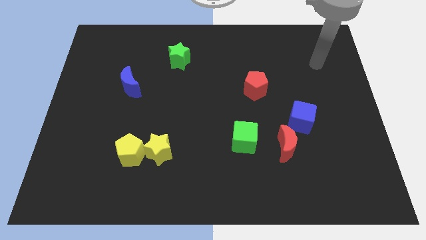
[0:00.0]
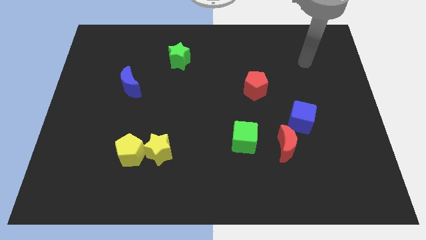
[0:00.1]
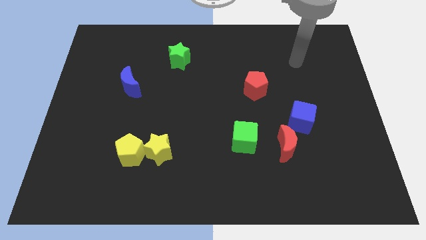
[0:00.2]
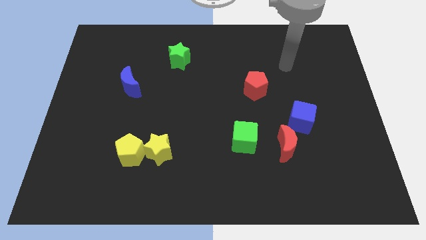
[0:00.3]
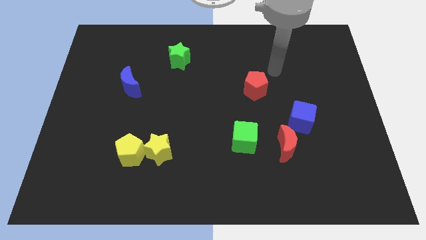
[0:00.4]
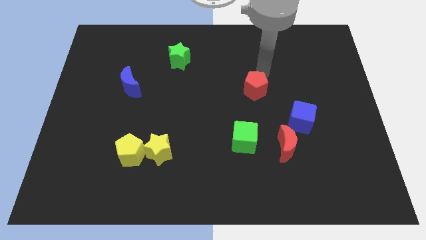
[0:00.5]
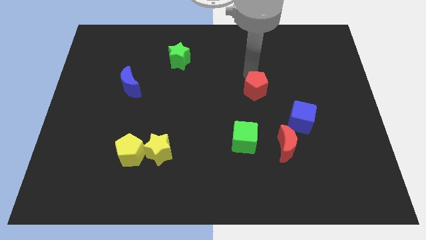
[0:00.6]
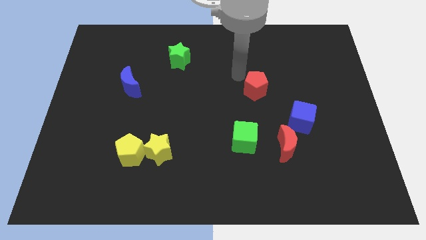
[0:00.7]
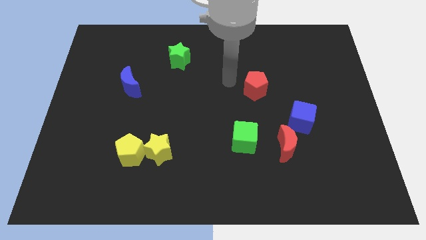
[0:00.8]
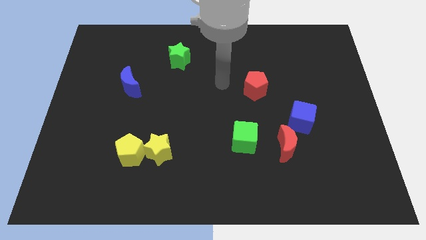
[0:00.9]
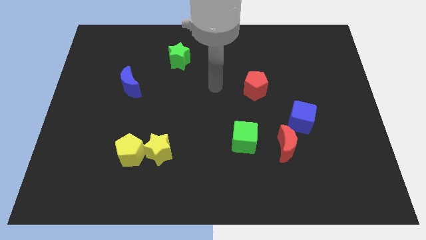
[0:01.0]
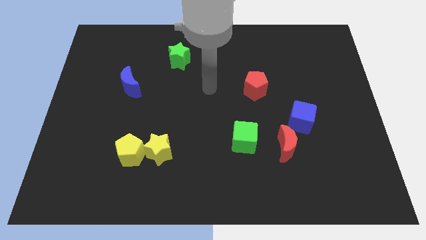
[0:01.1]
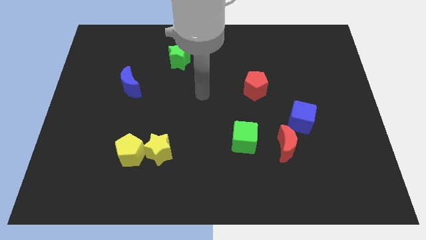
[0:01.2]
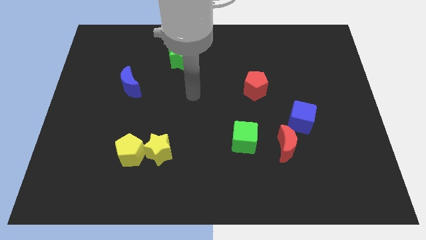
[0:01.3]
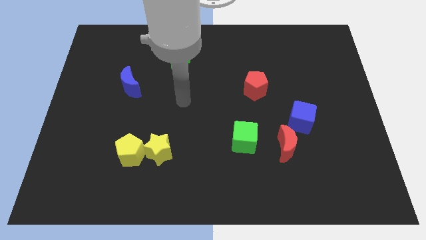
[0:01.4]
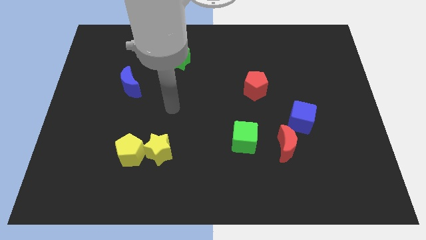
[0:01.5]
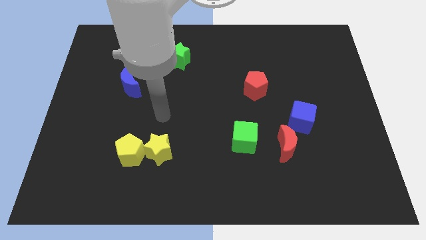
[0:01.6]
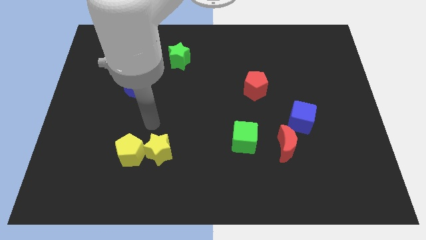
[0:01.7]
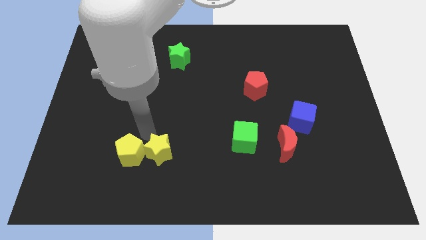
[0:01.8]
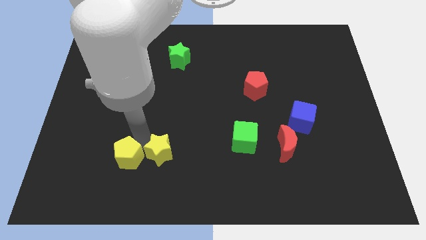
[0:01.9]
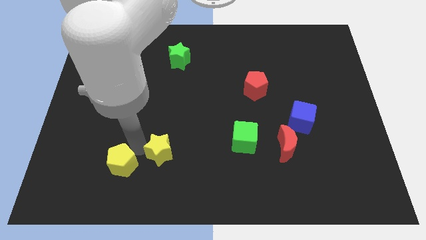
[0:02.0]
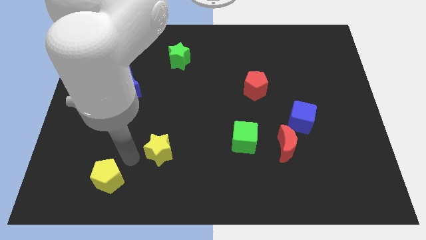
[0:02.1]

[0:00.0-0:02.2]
separate the yellow star from the yellow pentagon

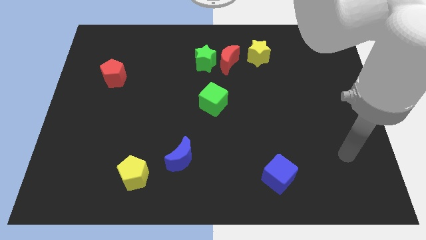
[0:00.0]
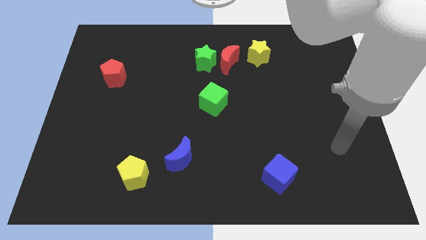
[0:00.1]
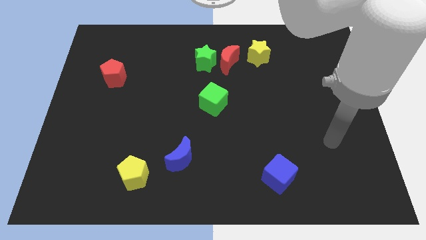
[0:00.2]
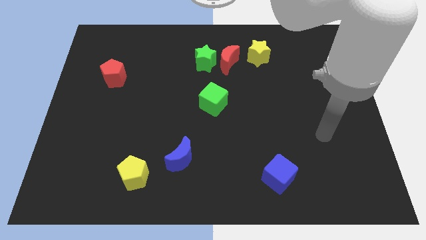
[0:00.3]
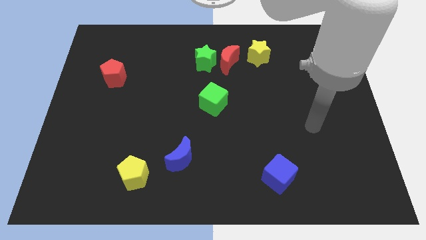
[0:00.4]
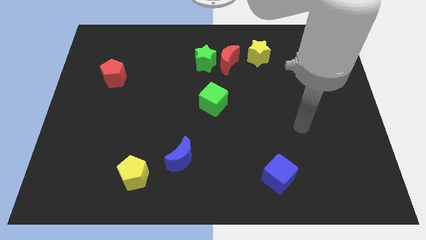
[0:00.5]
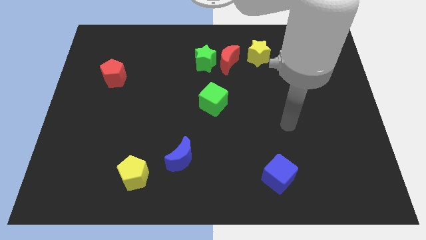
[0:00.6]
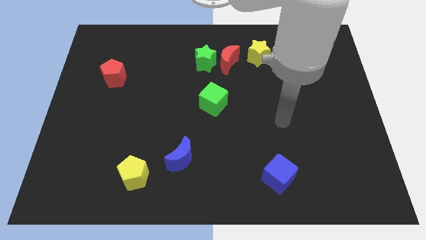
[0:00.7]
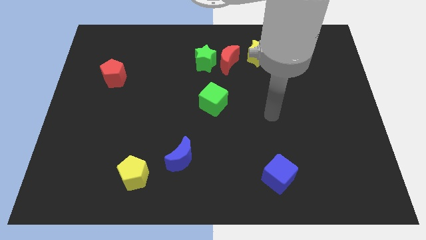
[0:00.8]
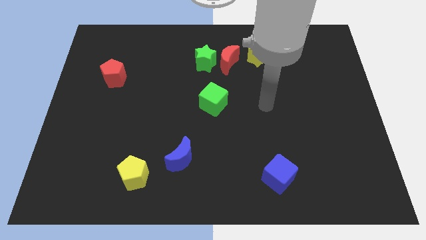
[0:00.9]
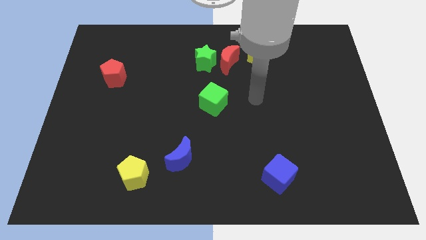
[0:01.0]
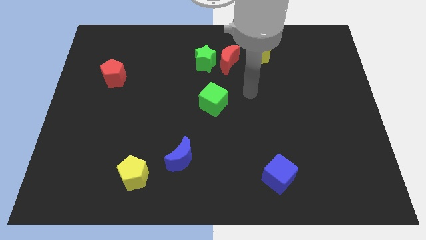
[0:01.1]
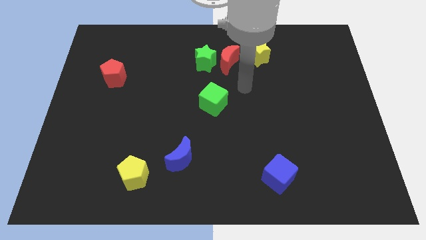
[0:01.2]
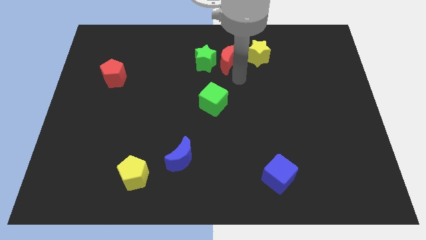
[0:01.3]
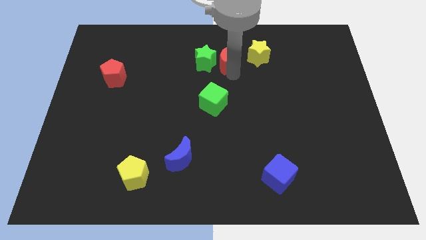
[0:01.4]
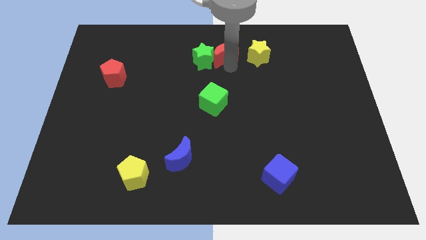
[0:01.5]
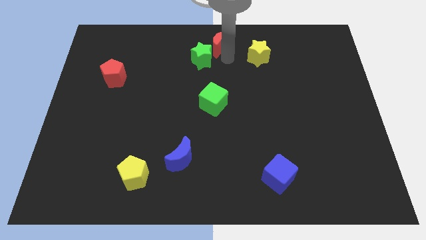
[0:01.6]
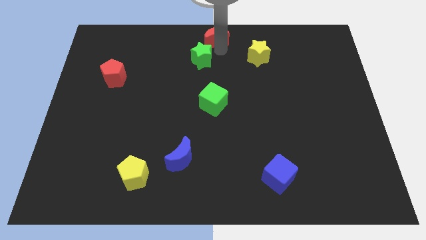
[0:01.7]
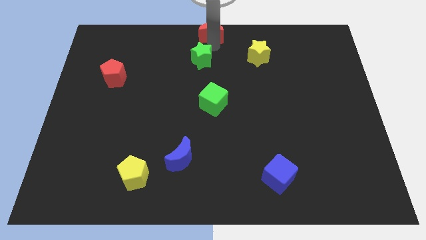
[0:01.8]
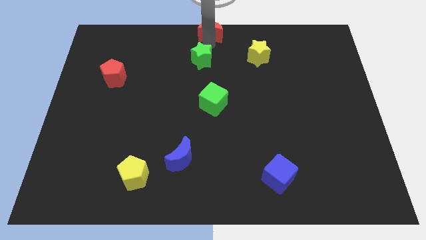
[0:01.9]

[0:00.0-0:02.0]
separate the green star from the red moon

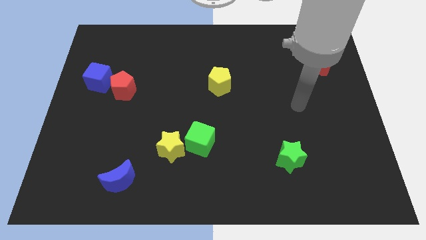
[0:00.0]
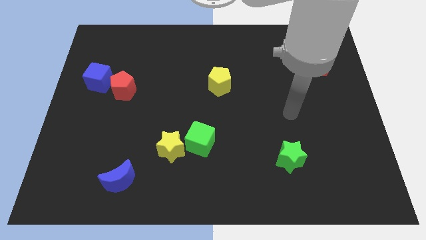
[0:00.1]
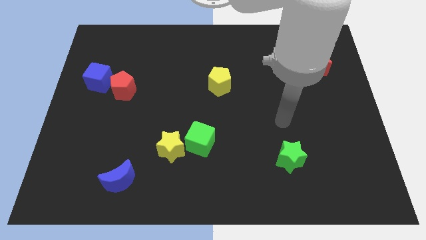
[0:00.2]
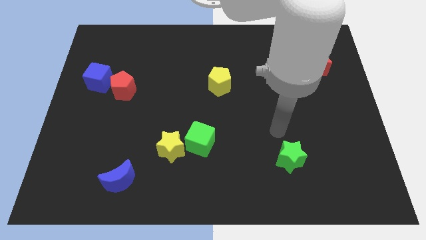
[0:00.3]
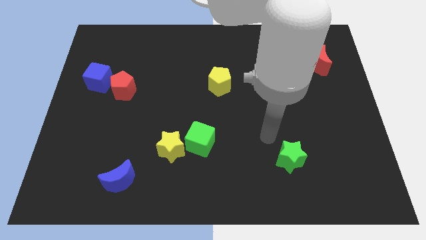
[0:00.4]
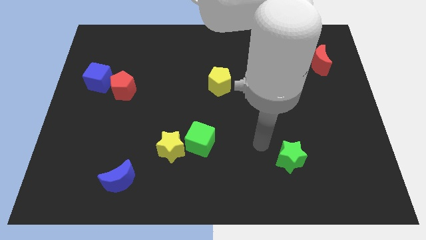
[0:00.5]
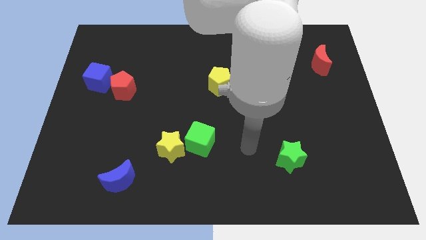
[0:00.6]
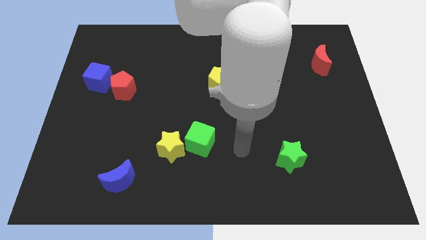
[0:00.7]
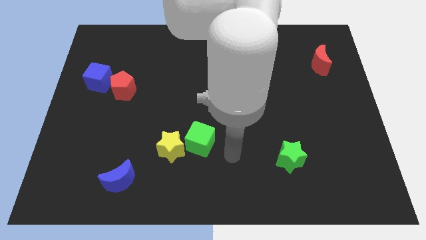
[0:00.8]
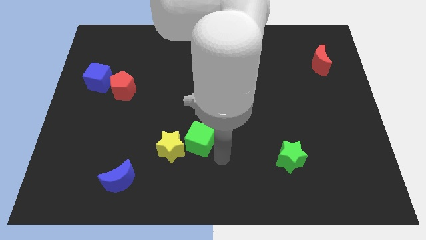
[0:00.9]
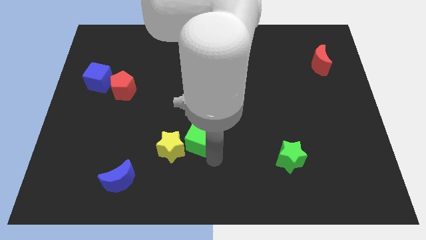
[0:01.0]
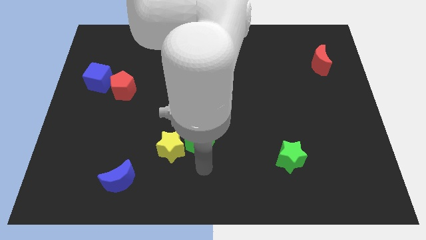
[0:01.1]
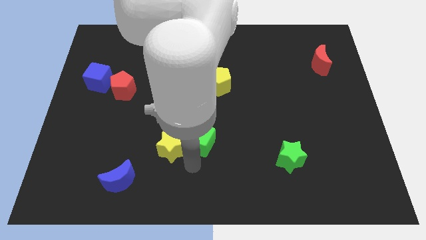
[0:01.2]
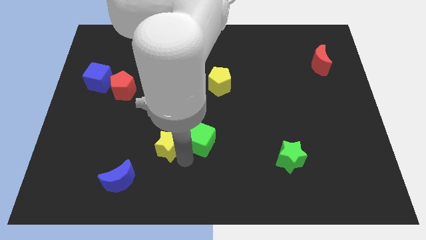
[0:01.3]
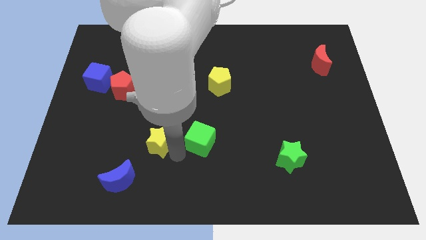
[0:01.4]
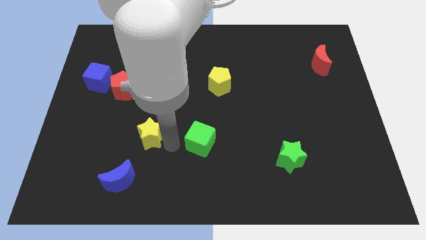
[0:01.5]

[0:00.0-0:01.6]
pull the green cube apart from the yellow star

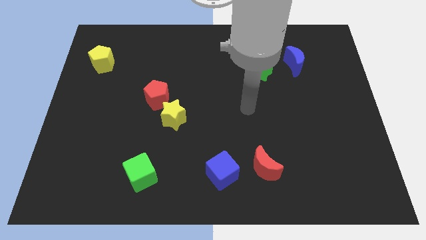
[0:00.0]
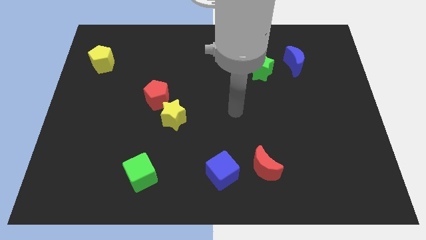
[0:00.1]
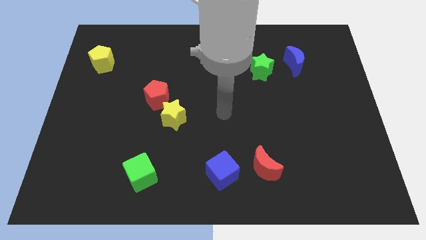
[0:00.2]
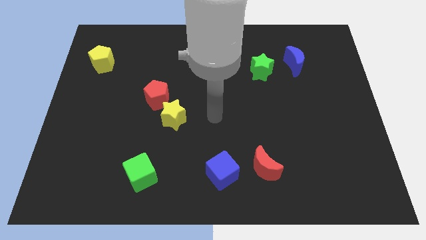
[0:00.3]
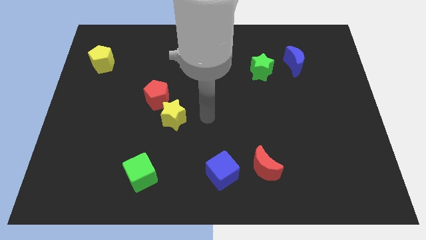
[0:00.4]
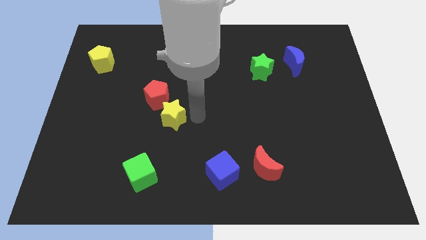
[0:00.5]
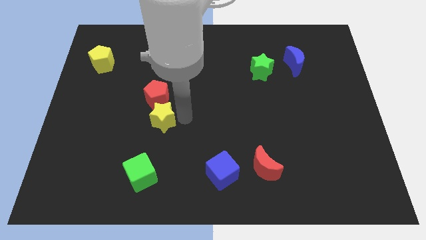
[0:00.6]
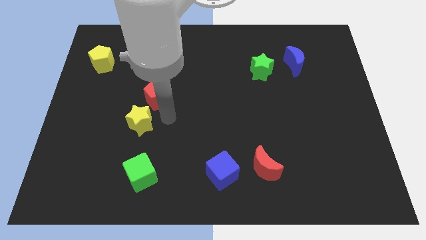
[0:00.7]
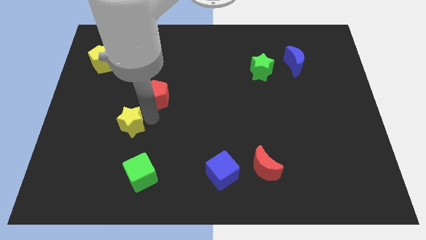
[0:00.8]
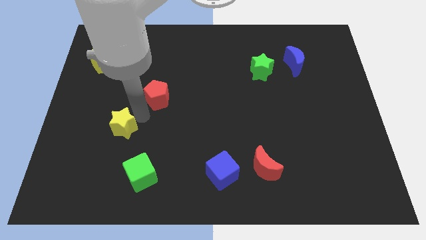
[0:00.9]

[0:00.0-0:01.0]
pull the red pentagon apart from the yellow star

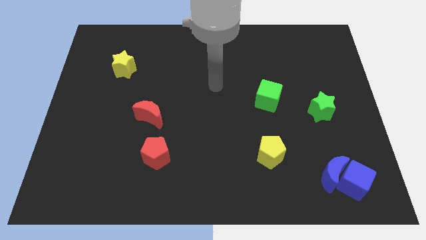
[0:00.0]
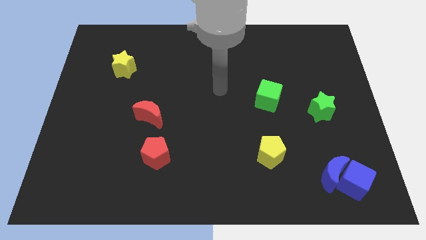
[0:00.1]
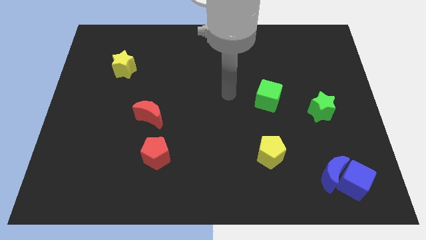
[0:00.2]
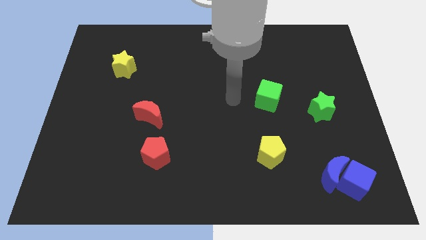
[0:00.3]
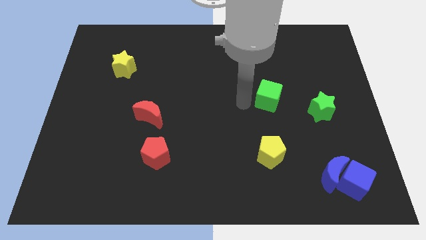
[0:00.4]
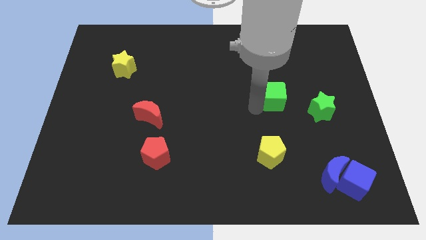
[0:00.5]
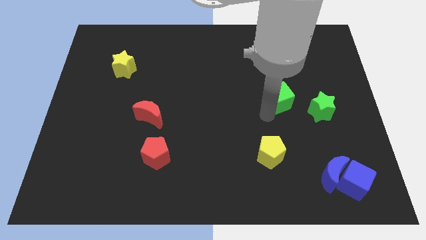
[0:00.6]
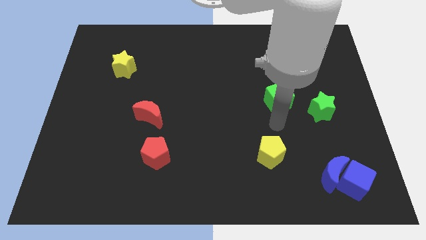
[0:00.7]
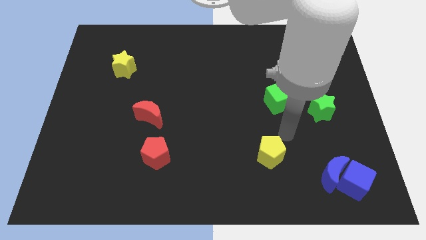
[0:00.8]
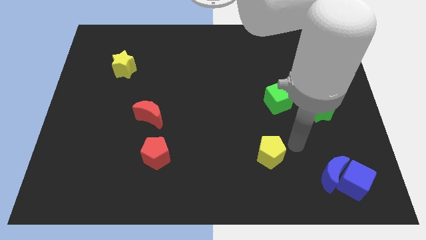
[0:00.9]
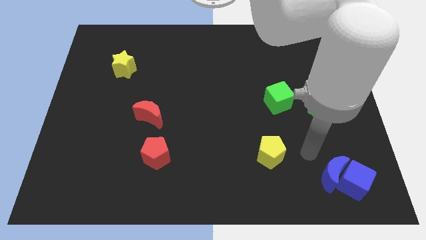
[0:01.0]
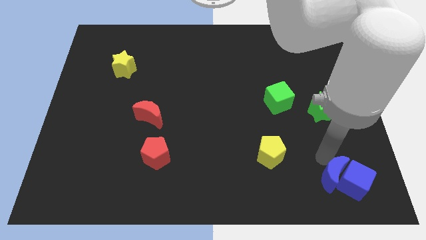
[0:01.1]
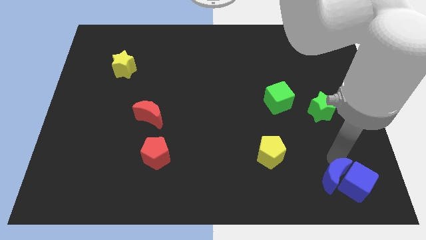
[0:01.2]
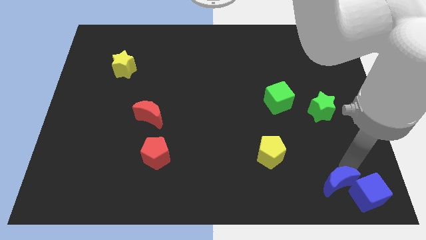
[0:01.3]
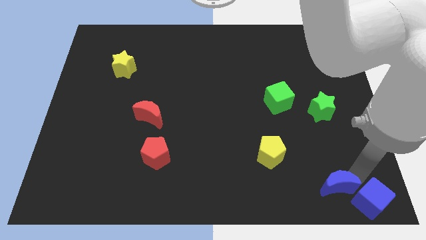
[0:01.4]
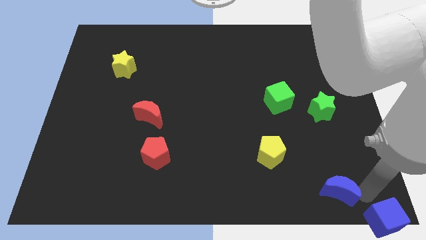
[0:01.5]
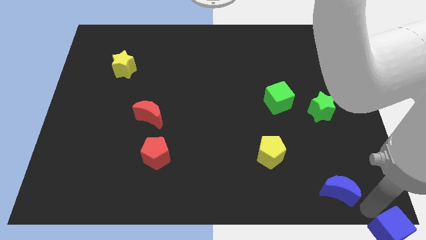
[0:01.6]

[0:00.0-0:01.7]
move the blue moon away from the blue cube

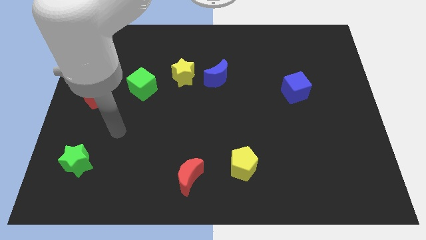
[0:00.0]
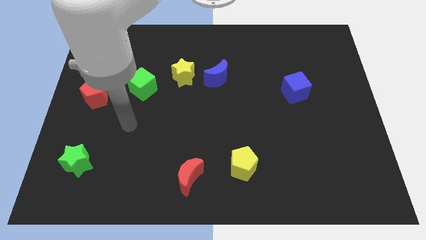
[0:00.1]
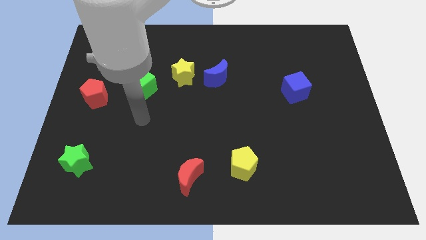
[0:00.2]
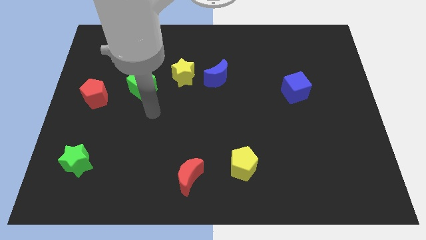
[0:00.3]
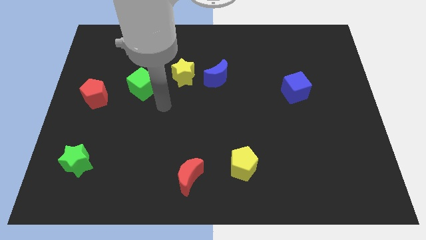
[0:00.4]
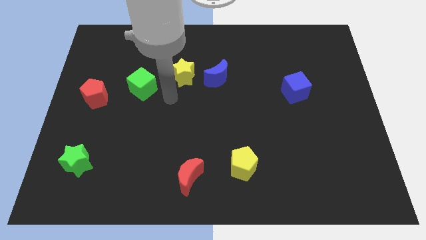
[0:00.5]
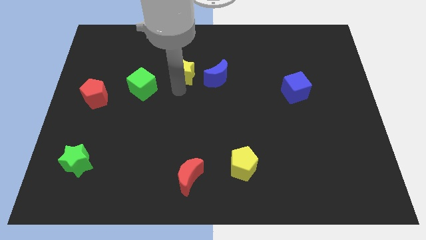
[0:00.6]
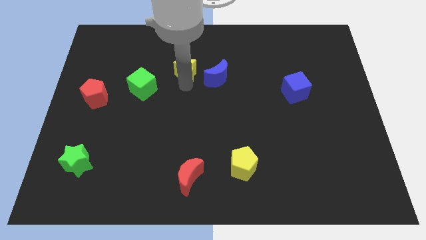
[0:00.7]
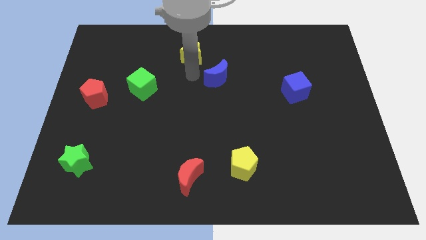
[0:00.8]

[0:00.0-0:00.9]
move the blue moon away from the yellow star
